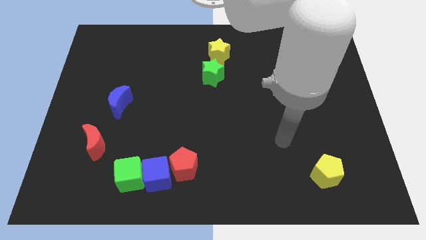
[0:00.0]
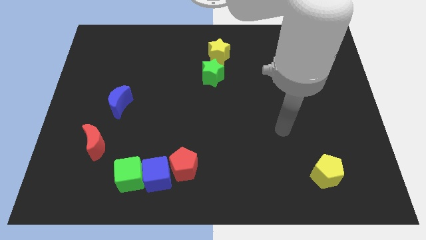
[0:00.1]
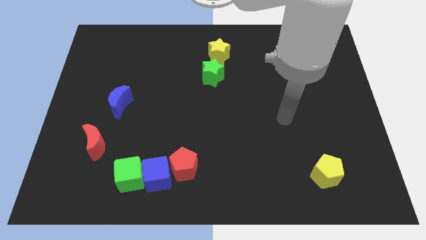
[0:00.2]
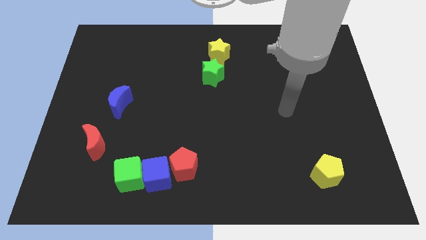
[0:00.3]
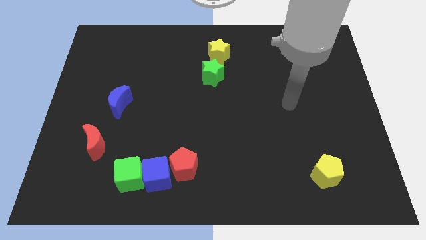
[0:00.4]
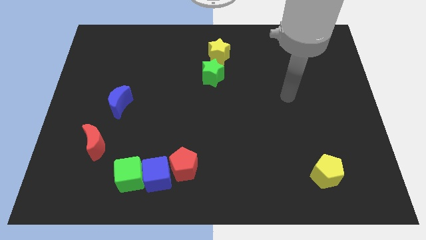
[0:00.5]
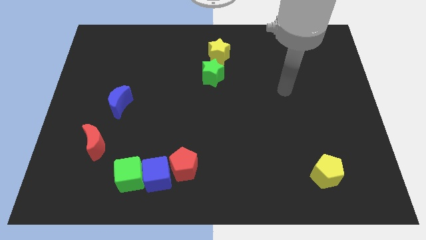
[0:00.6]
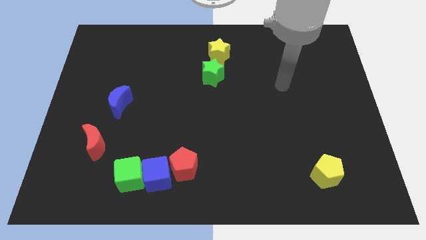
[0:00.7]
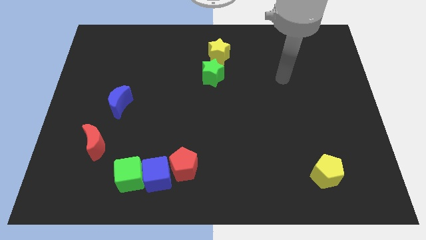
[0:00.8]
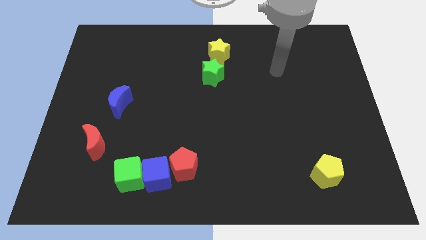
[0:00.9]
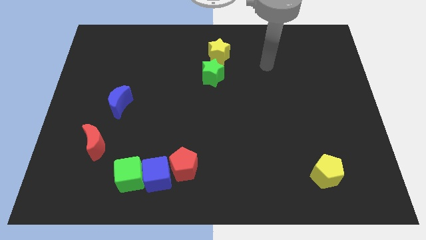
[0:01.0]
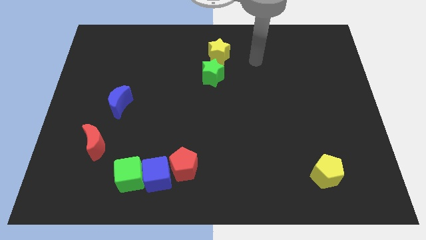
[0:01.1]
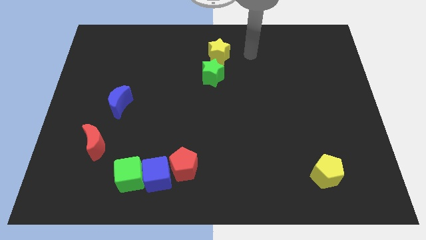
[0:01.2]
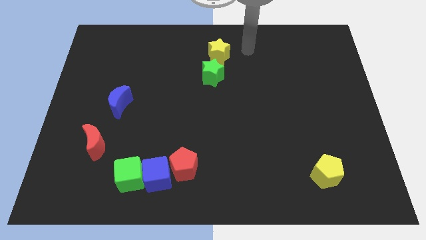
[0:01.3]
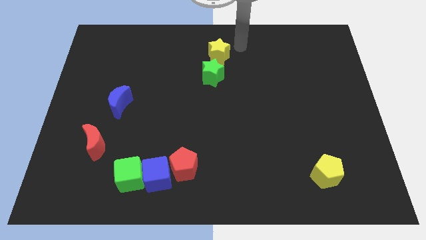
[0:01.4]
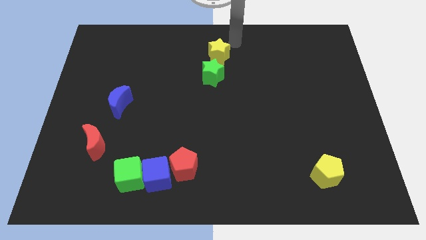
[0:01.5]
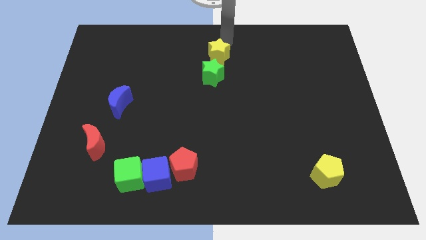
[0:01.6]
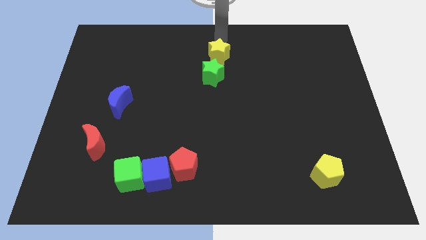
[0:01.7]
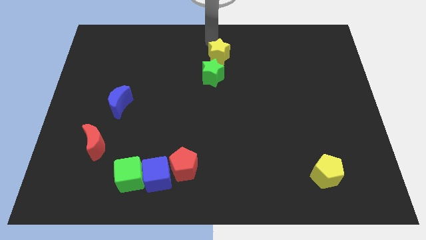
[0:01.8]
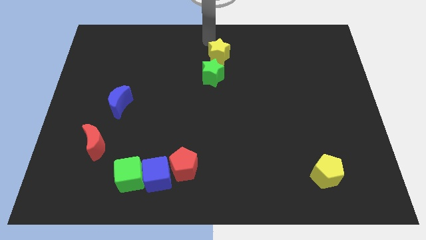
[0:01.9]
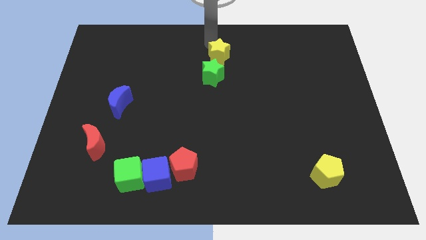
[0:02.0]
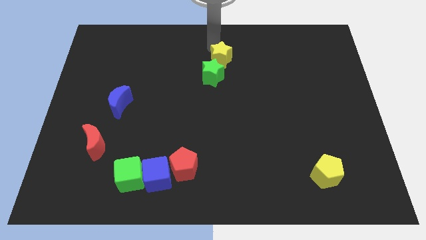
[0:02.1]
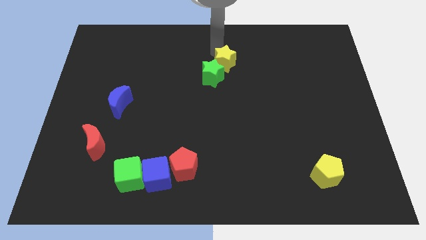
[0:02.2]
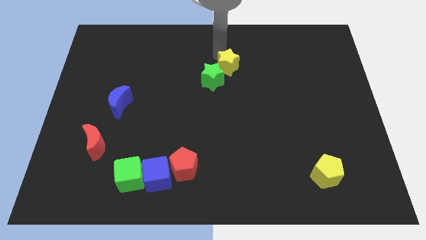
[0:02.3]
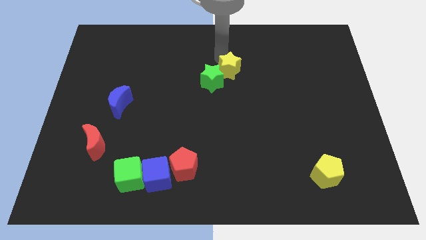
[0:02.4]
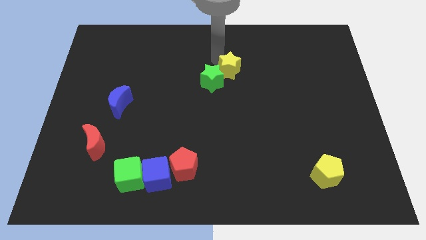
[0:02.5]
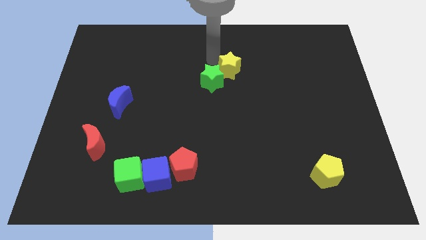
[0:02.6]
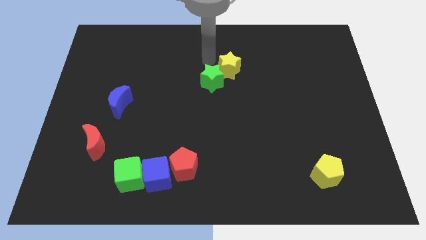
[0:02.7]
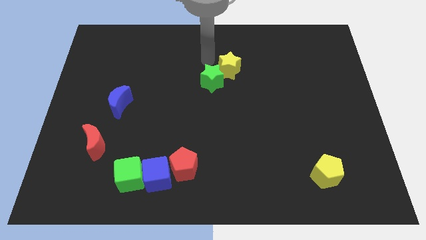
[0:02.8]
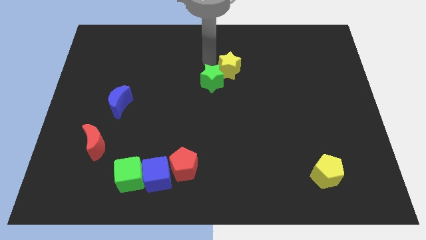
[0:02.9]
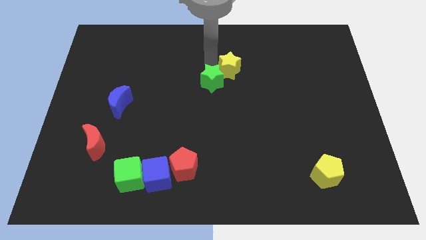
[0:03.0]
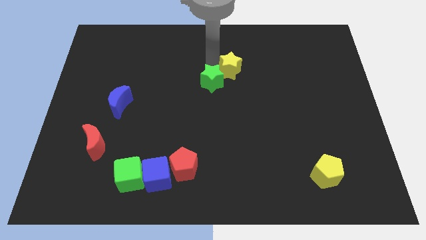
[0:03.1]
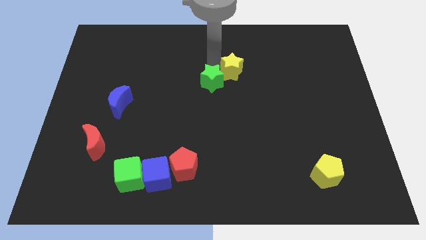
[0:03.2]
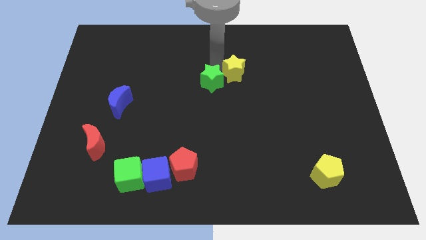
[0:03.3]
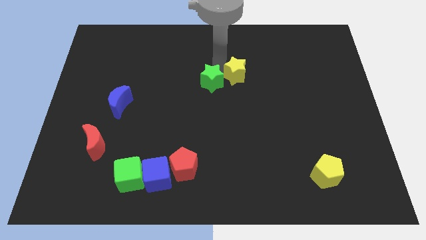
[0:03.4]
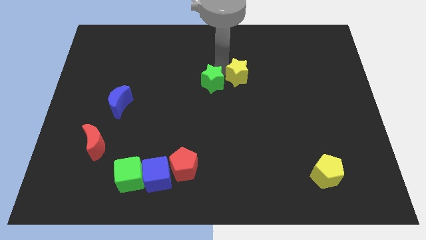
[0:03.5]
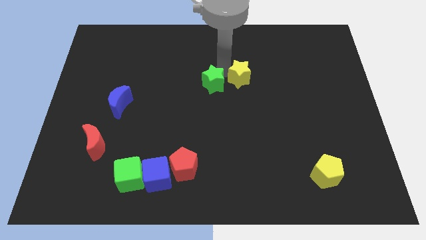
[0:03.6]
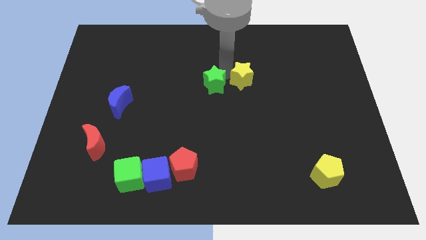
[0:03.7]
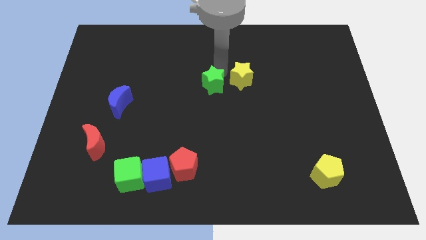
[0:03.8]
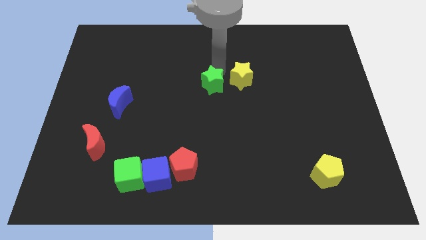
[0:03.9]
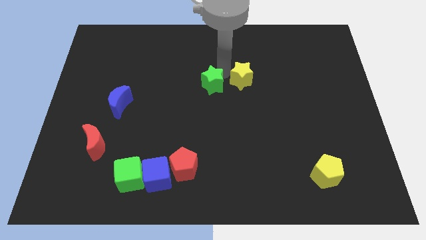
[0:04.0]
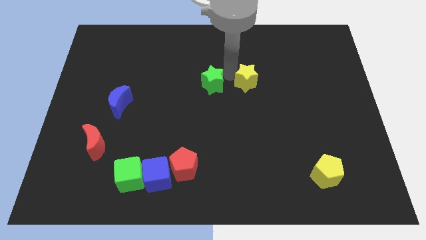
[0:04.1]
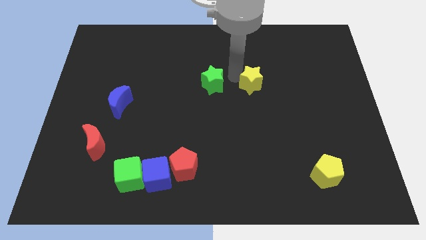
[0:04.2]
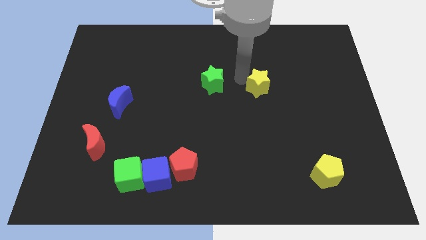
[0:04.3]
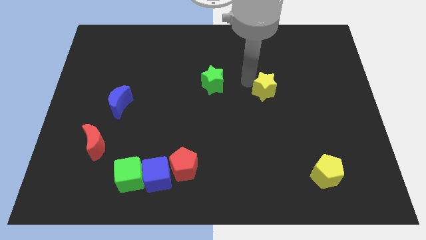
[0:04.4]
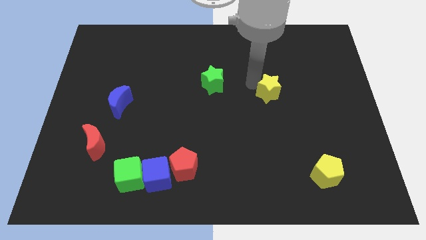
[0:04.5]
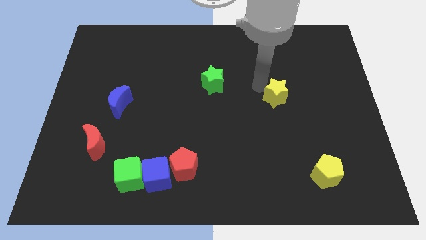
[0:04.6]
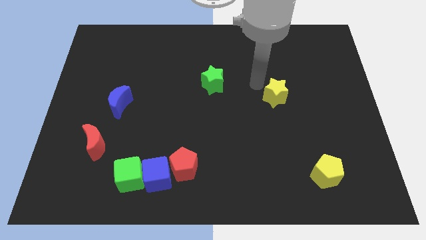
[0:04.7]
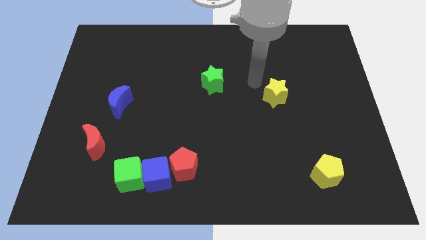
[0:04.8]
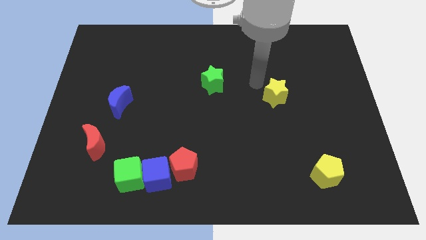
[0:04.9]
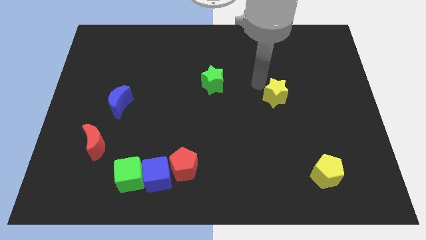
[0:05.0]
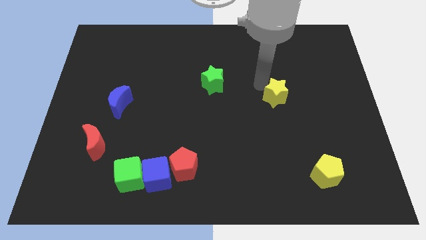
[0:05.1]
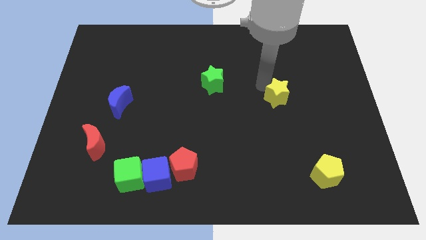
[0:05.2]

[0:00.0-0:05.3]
push the yellow star downwards and to the right

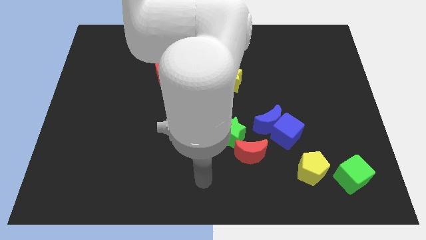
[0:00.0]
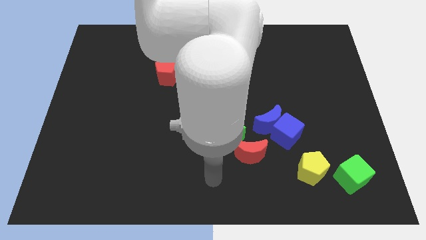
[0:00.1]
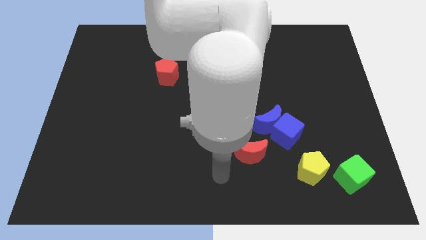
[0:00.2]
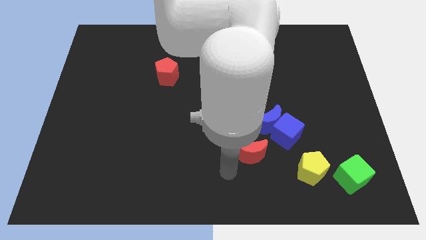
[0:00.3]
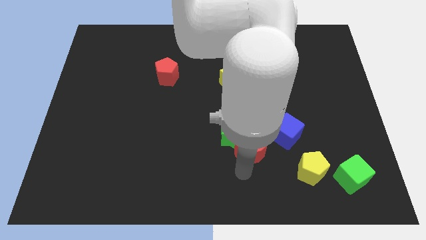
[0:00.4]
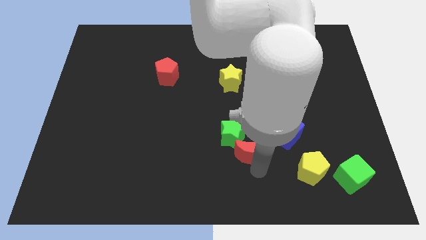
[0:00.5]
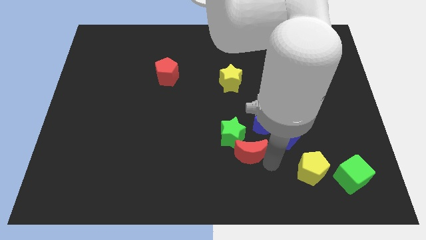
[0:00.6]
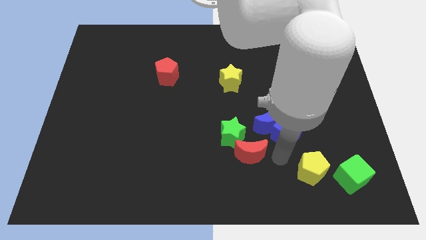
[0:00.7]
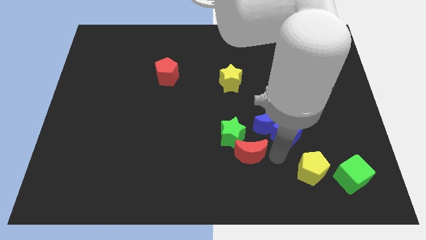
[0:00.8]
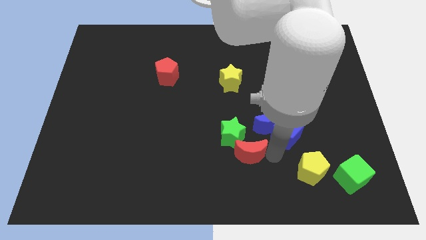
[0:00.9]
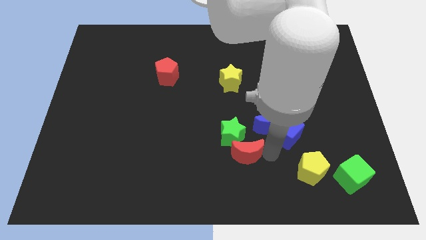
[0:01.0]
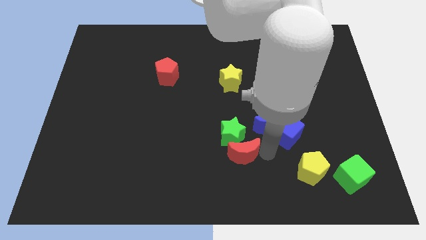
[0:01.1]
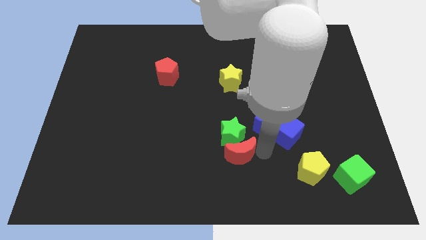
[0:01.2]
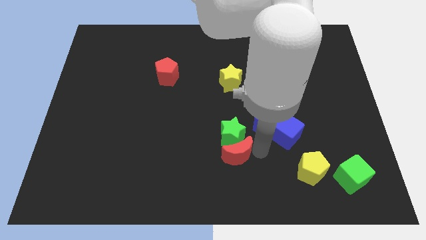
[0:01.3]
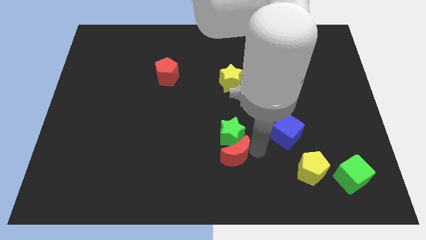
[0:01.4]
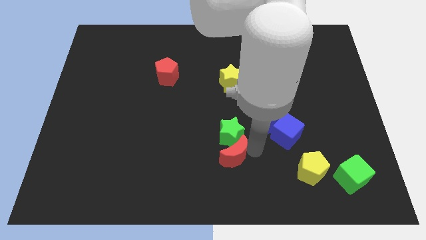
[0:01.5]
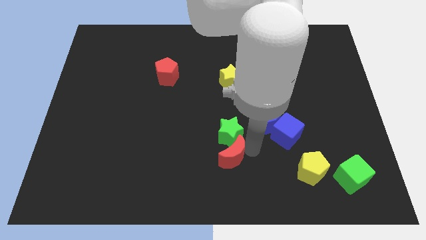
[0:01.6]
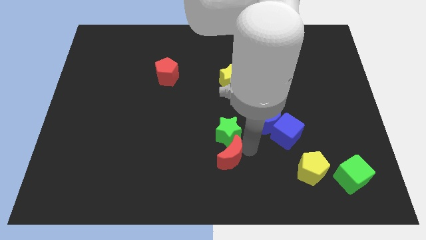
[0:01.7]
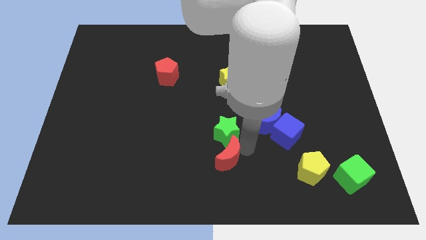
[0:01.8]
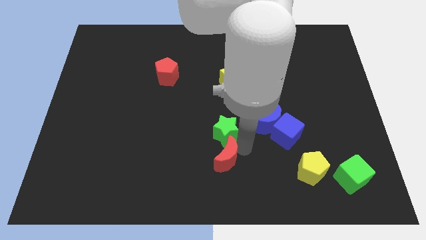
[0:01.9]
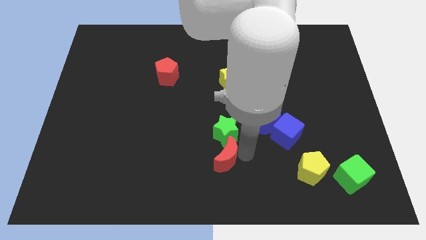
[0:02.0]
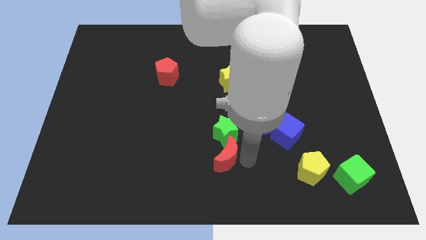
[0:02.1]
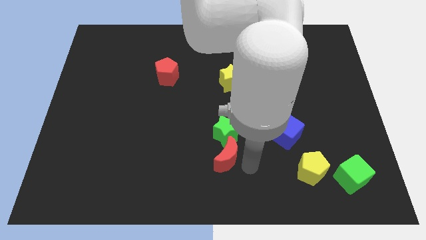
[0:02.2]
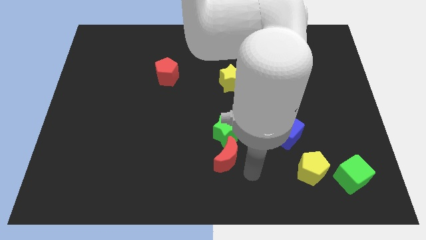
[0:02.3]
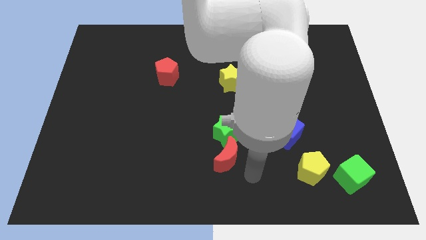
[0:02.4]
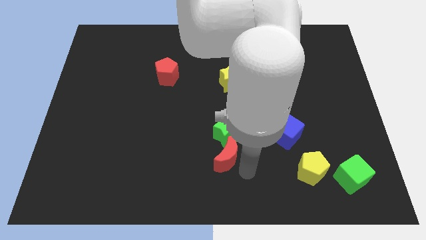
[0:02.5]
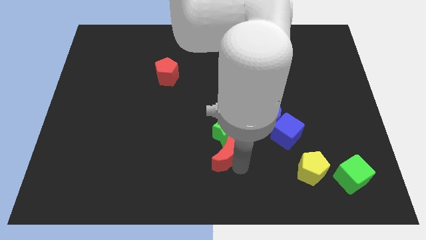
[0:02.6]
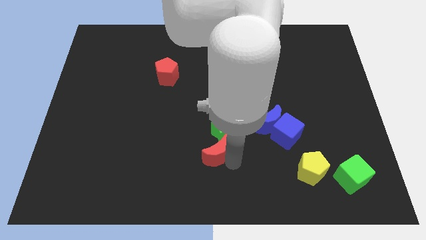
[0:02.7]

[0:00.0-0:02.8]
slightly slide the red moon to the left
